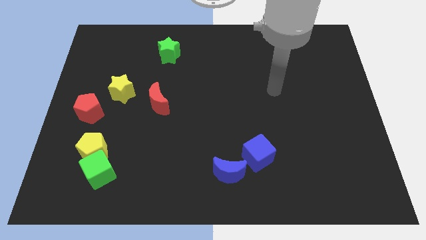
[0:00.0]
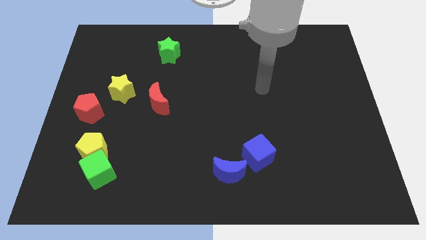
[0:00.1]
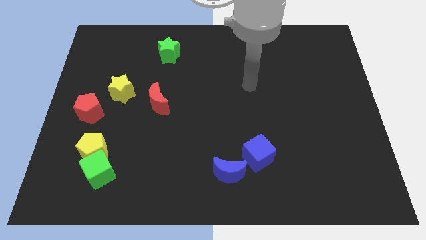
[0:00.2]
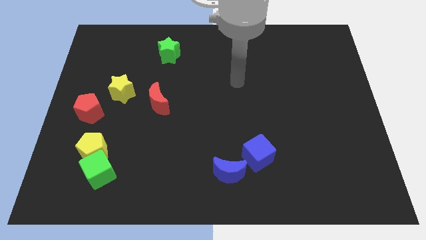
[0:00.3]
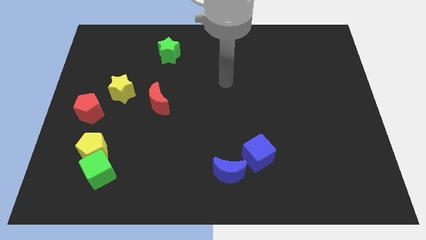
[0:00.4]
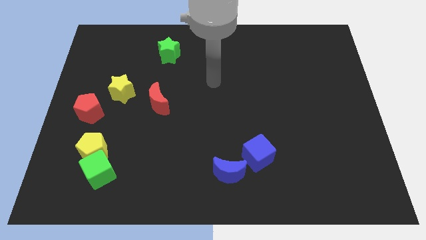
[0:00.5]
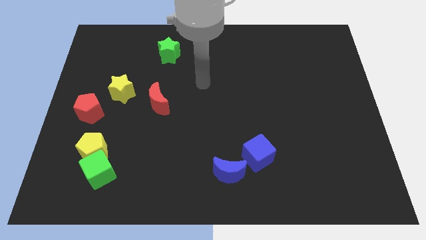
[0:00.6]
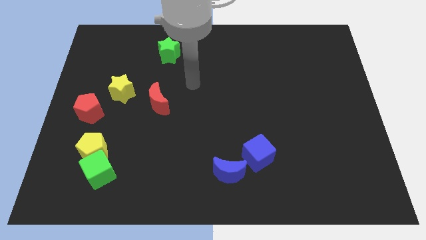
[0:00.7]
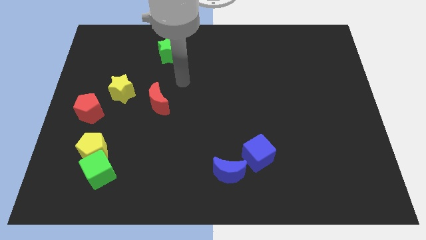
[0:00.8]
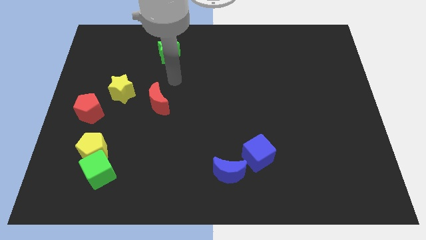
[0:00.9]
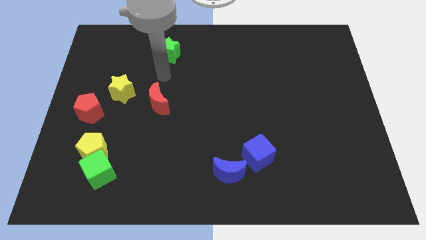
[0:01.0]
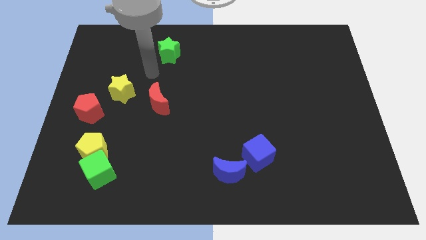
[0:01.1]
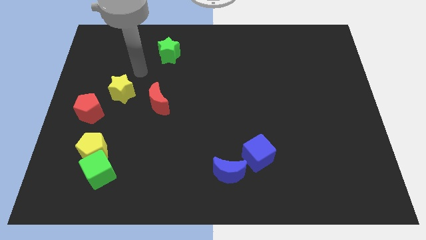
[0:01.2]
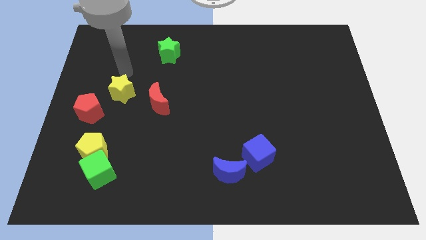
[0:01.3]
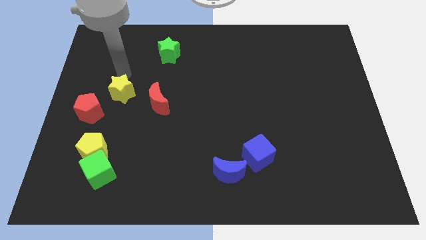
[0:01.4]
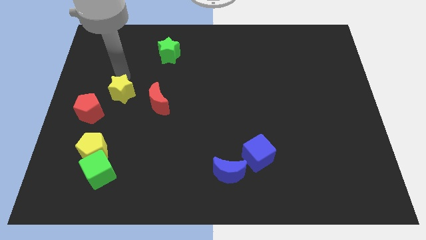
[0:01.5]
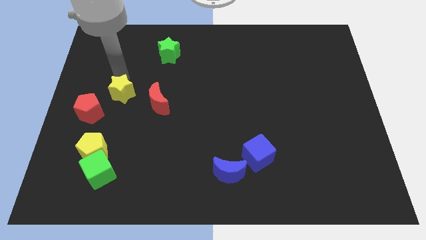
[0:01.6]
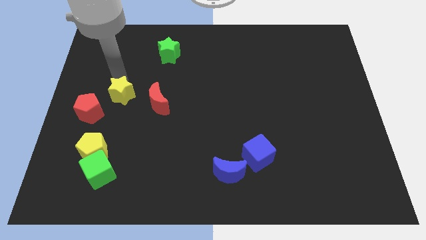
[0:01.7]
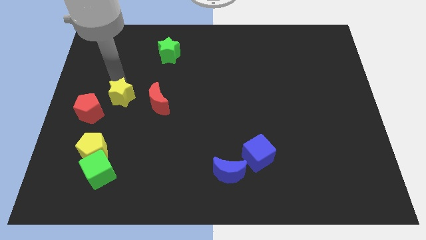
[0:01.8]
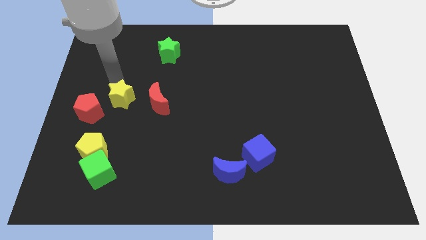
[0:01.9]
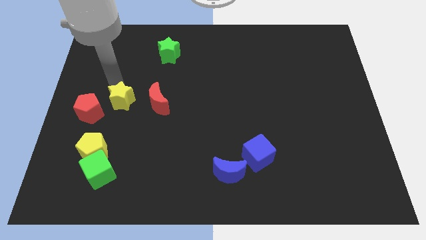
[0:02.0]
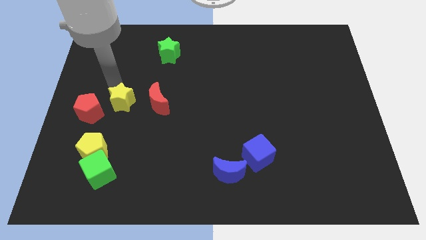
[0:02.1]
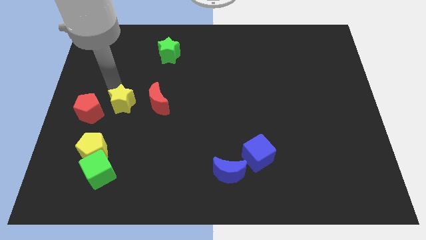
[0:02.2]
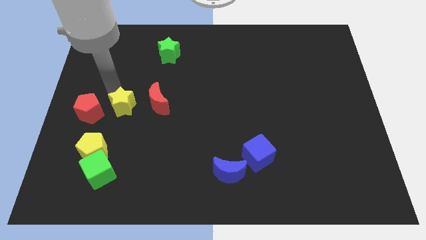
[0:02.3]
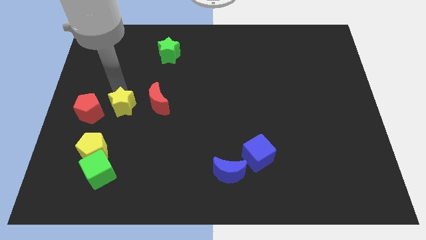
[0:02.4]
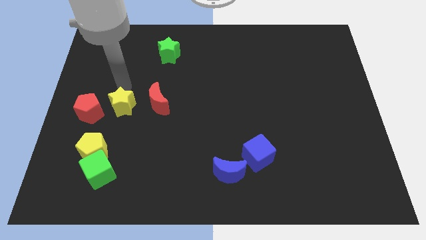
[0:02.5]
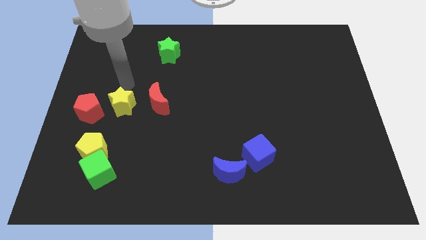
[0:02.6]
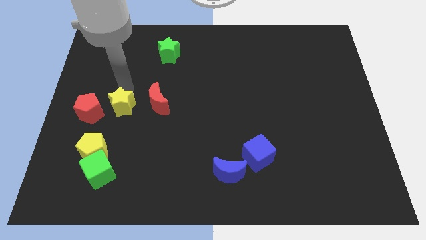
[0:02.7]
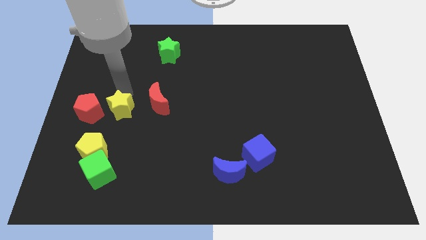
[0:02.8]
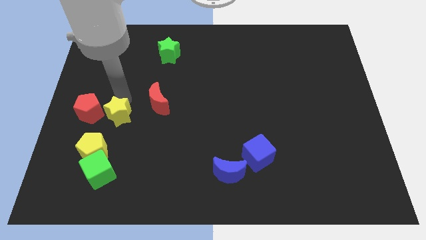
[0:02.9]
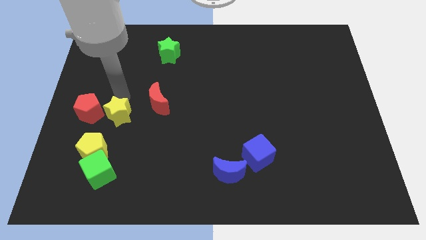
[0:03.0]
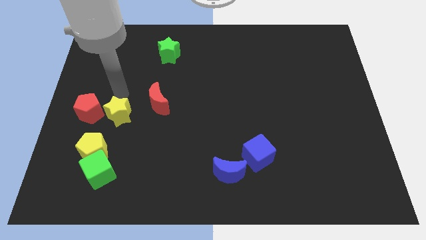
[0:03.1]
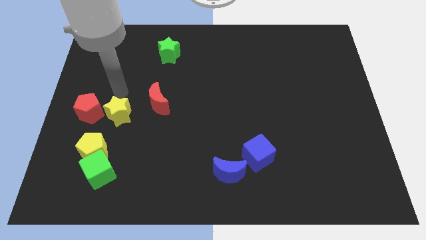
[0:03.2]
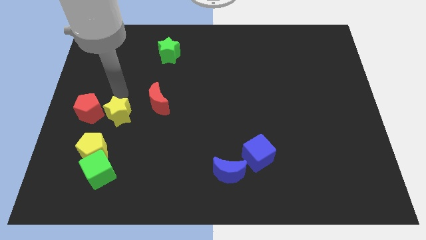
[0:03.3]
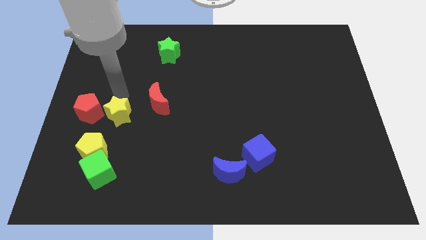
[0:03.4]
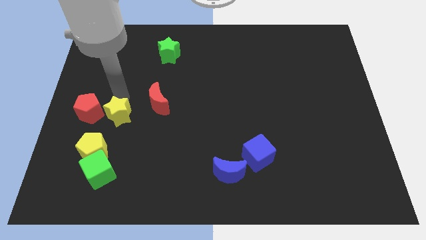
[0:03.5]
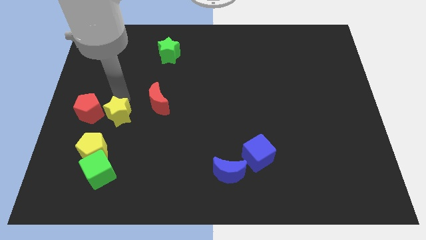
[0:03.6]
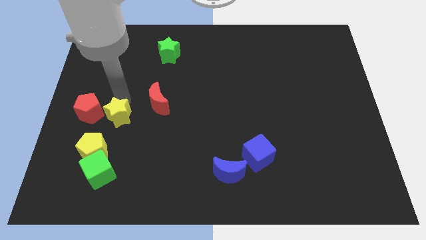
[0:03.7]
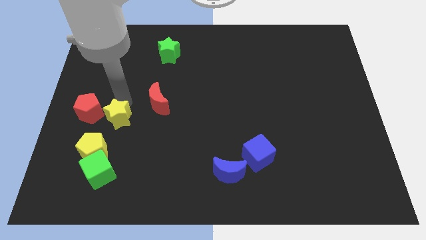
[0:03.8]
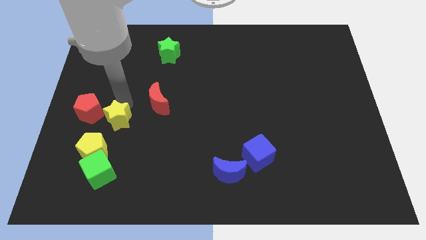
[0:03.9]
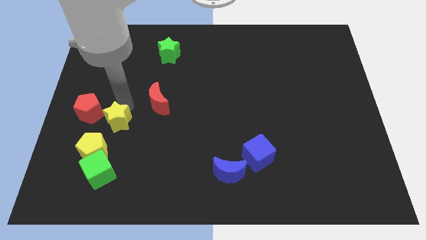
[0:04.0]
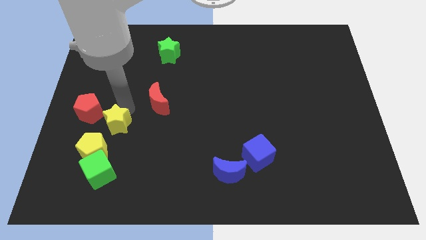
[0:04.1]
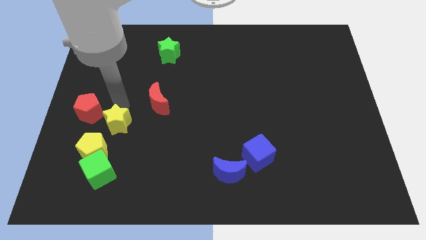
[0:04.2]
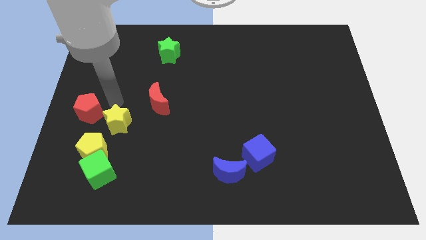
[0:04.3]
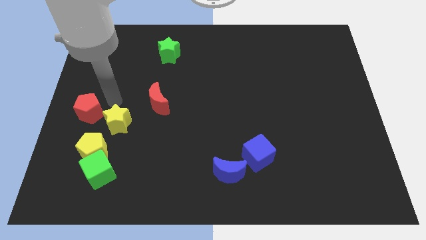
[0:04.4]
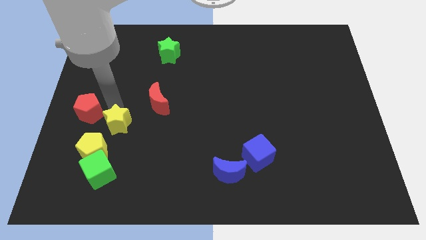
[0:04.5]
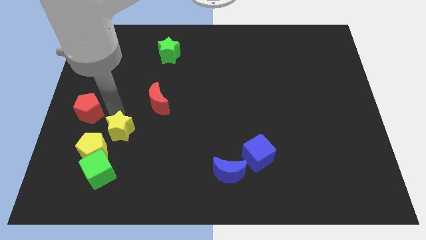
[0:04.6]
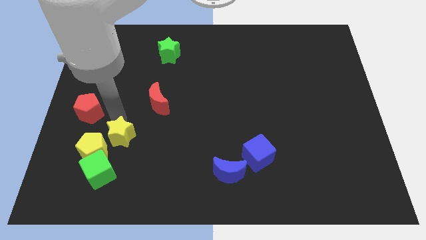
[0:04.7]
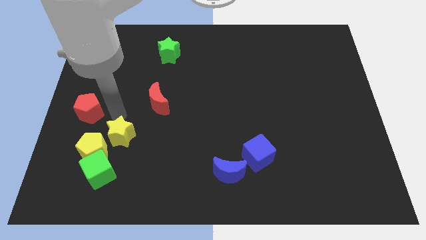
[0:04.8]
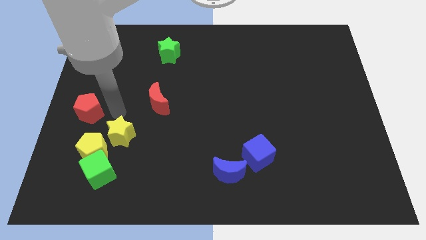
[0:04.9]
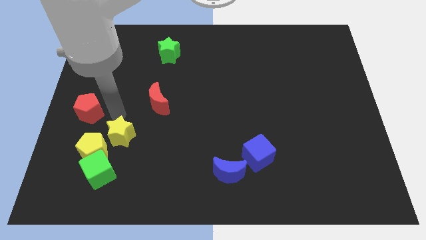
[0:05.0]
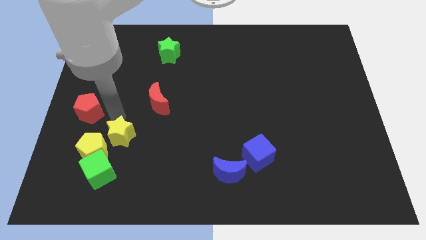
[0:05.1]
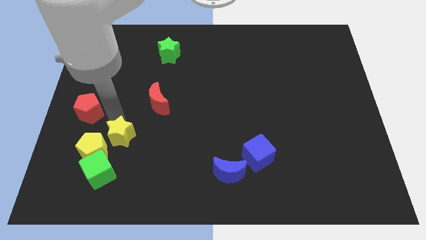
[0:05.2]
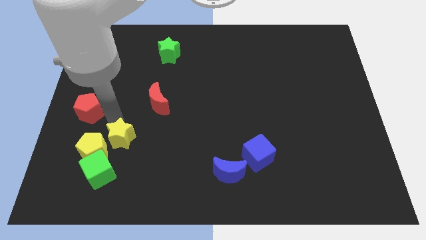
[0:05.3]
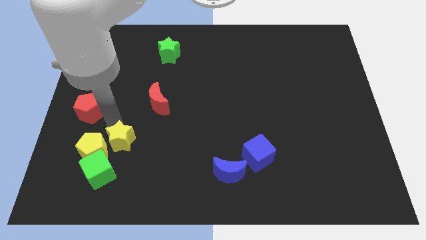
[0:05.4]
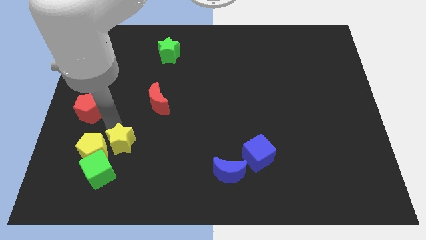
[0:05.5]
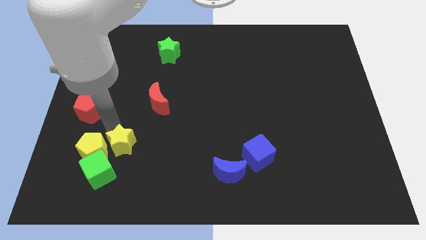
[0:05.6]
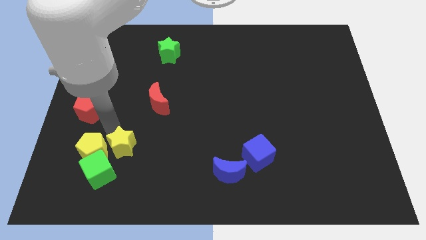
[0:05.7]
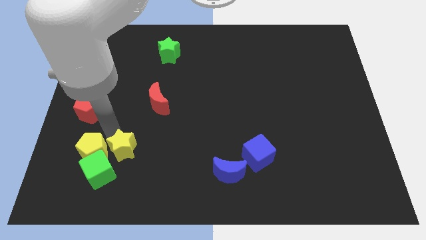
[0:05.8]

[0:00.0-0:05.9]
slide the yellow star to the bottom right side of the yellow pentagon

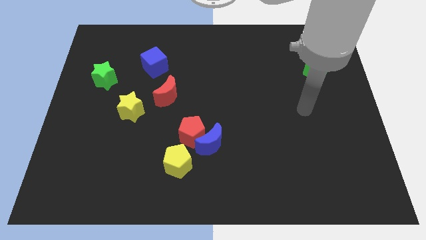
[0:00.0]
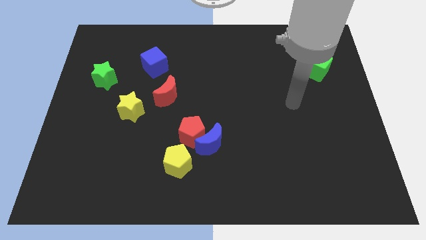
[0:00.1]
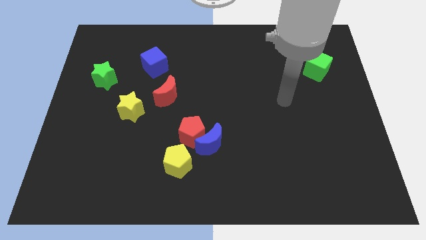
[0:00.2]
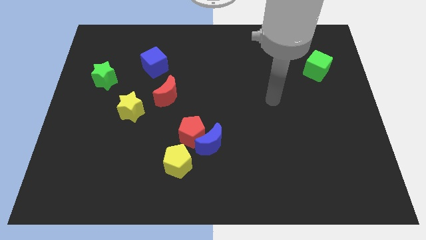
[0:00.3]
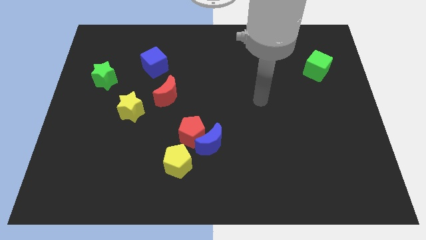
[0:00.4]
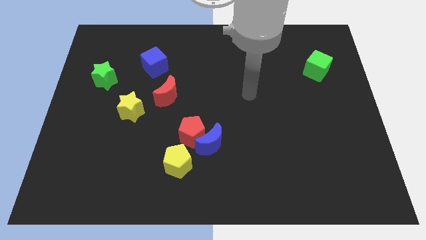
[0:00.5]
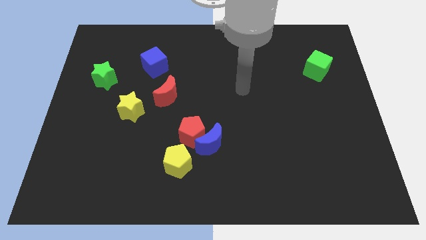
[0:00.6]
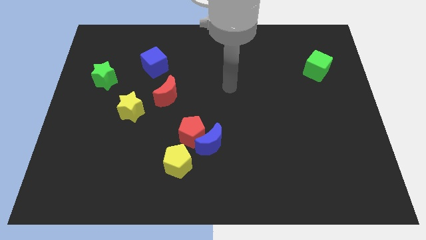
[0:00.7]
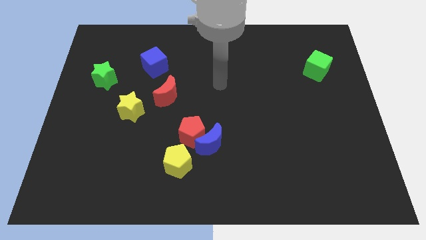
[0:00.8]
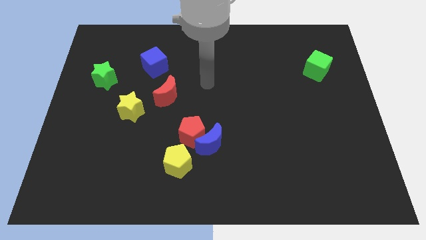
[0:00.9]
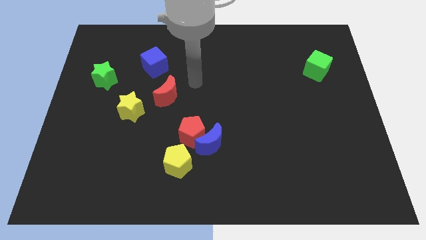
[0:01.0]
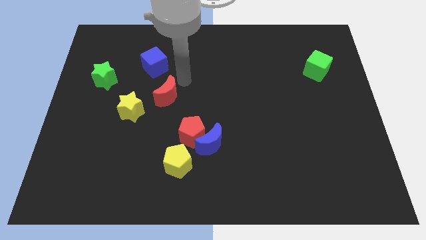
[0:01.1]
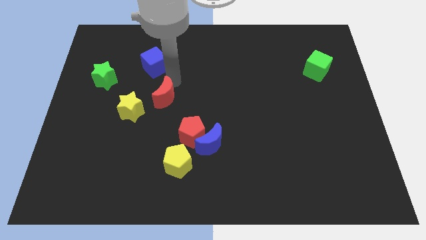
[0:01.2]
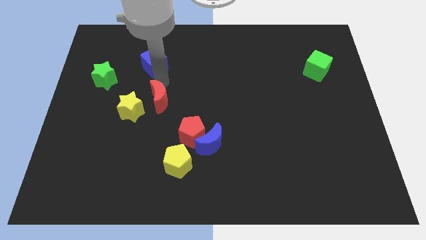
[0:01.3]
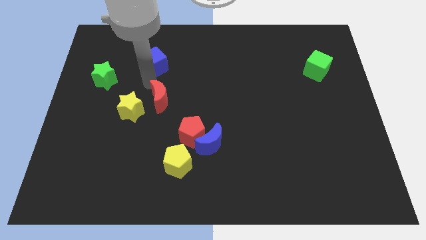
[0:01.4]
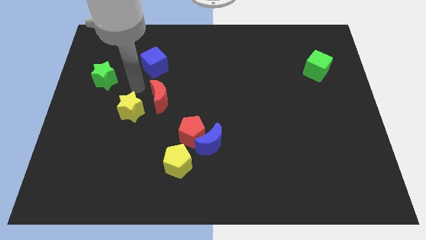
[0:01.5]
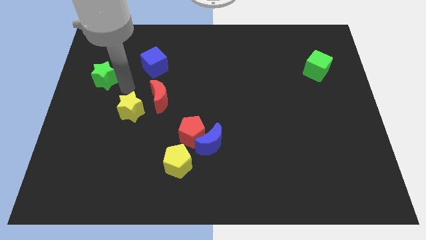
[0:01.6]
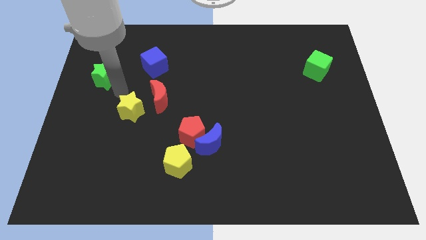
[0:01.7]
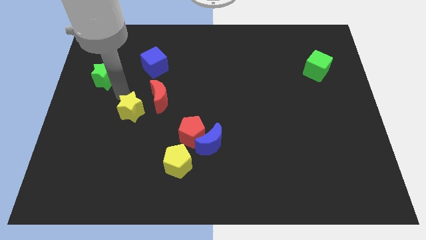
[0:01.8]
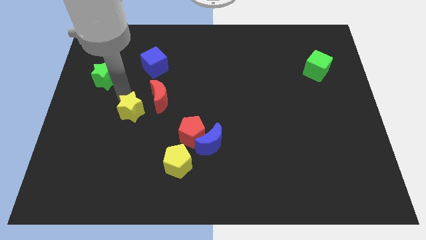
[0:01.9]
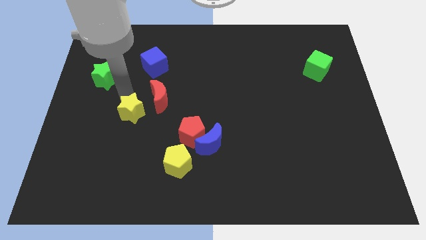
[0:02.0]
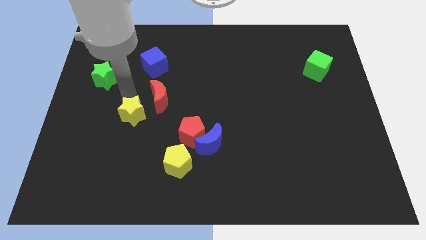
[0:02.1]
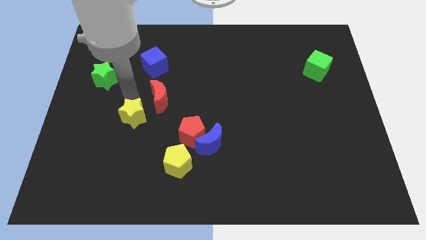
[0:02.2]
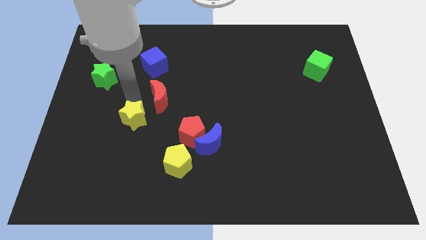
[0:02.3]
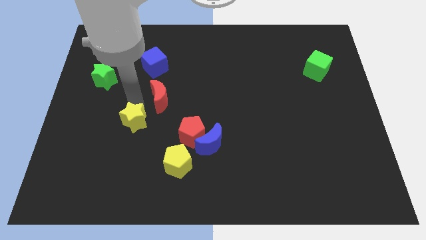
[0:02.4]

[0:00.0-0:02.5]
slide the yellow star left of the red pentagon
